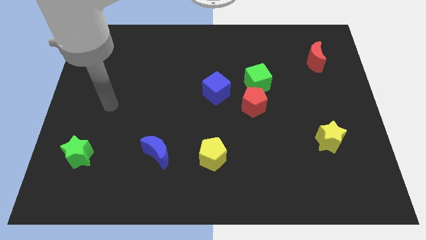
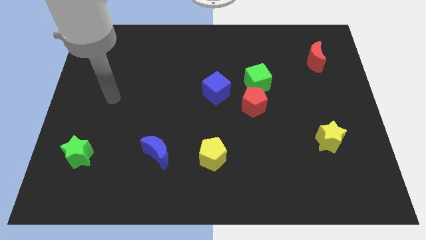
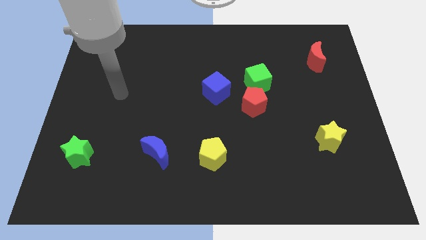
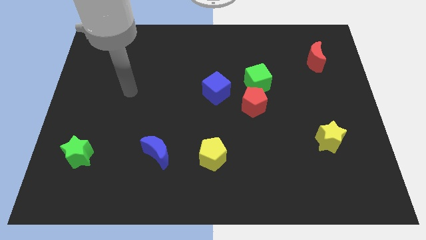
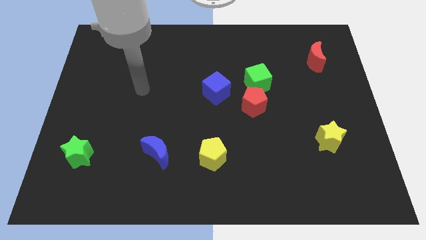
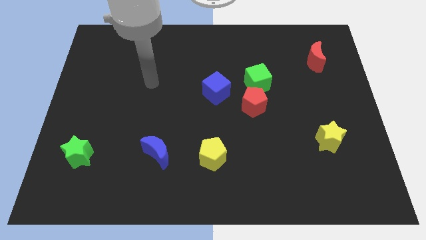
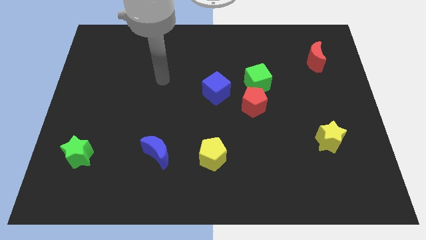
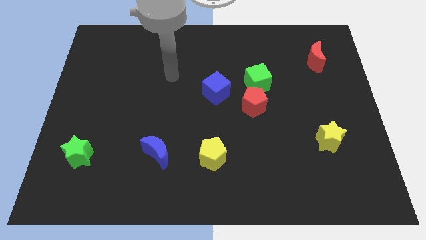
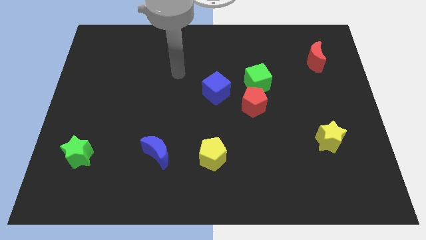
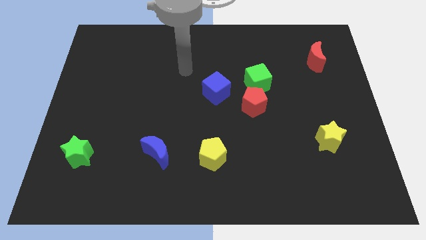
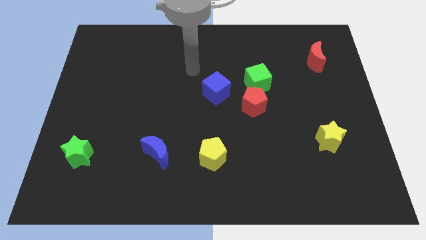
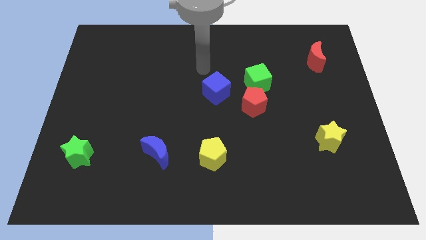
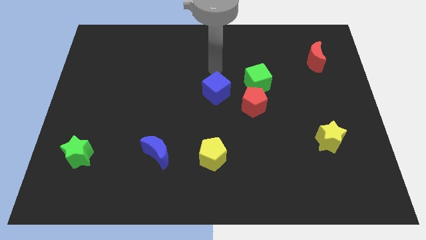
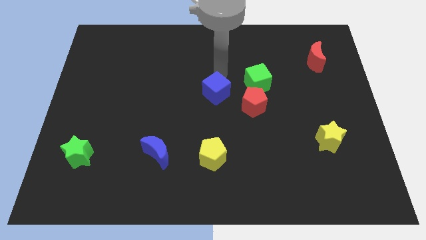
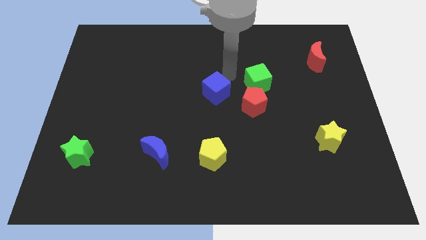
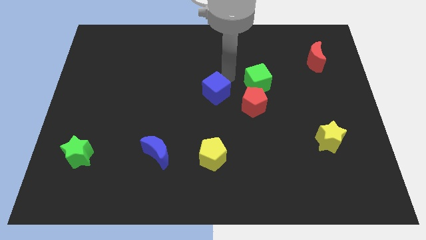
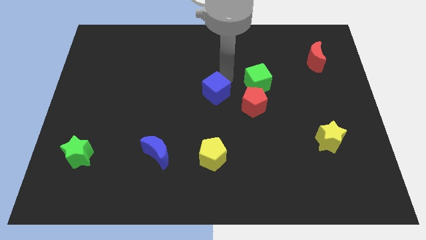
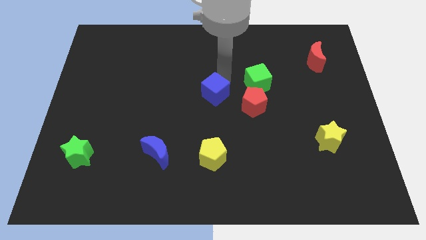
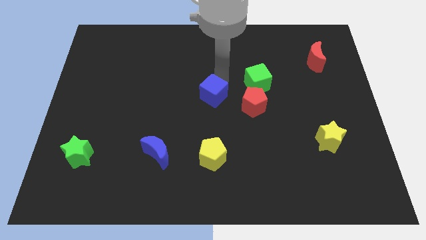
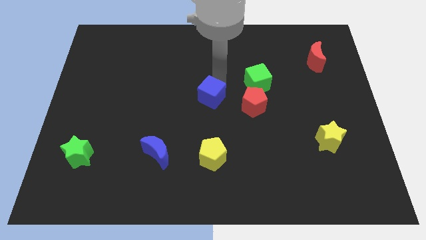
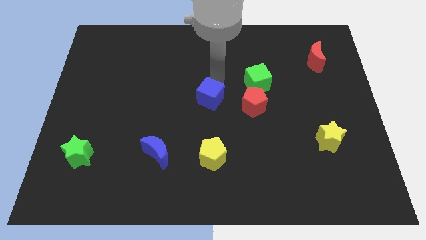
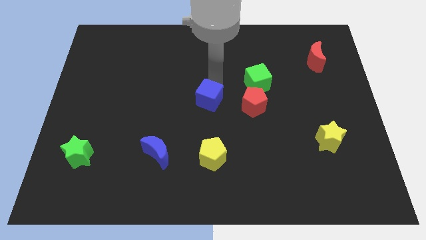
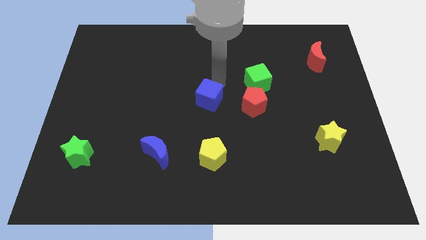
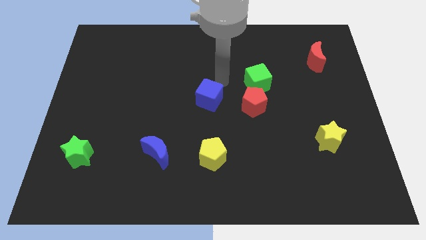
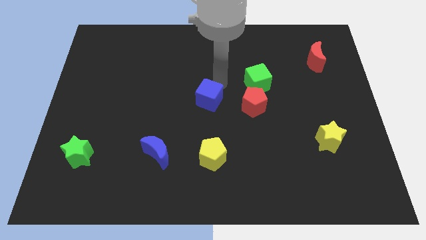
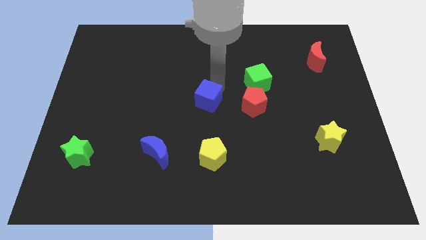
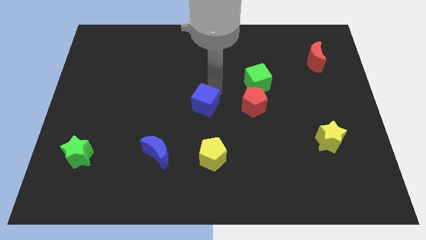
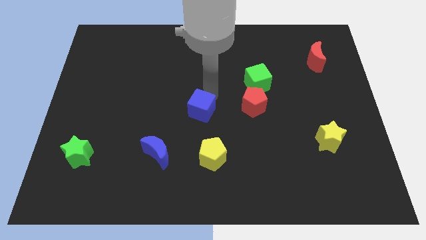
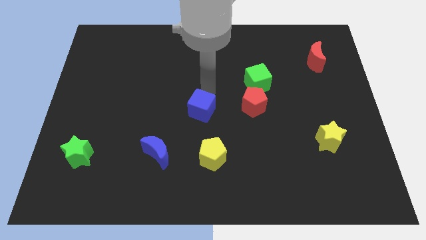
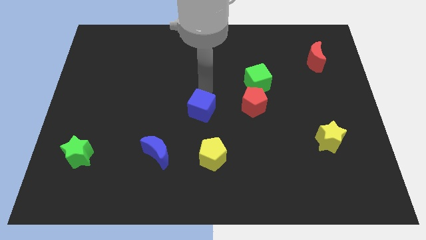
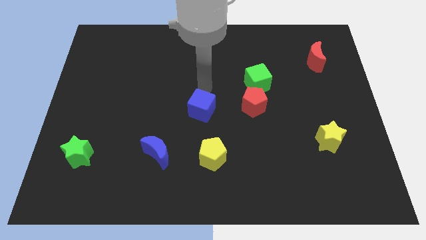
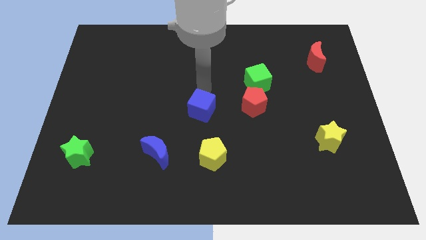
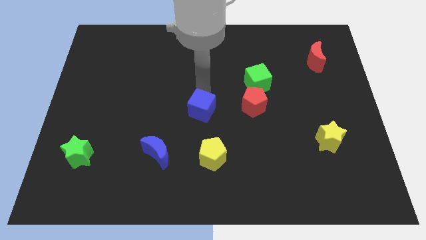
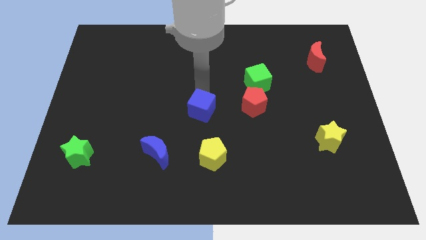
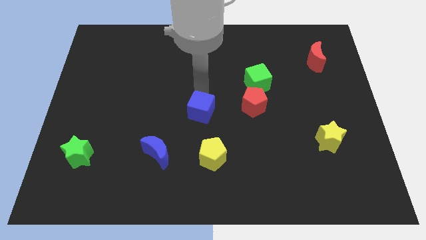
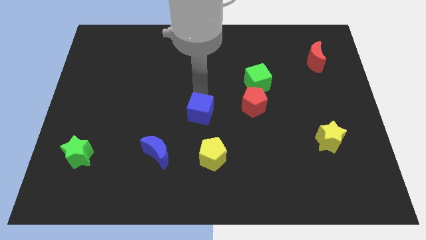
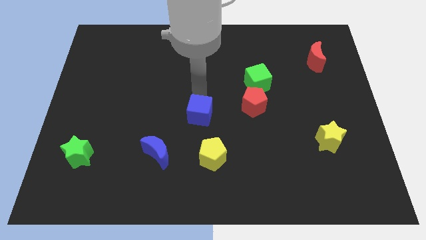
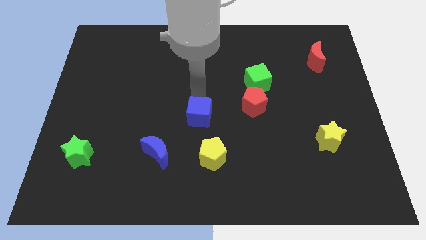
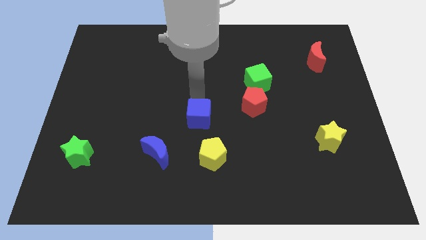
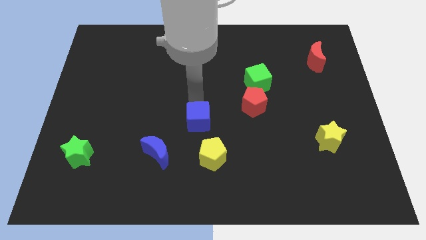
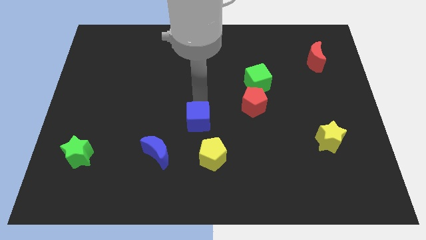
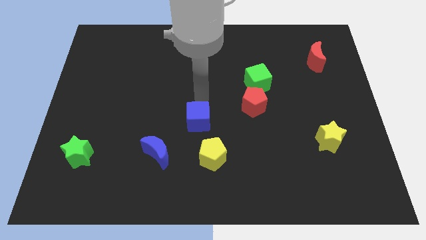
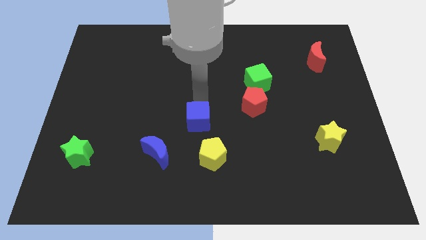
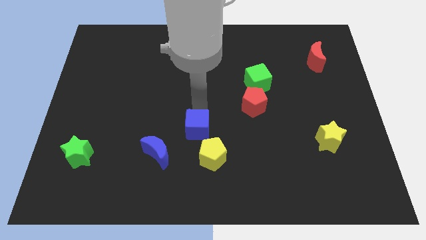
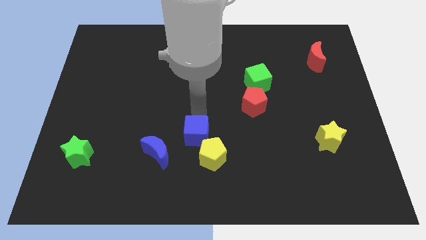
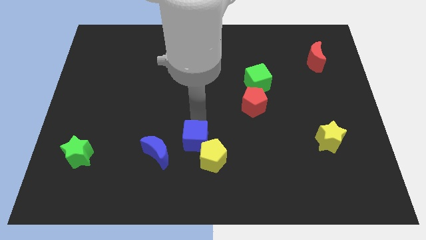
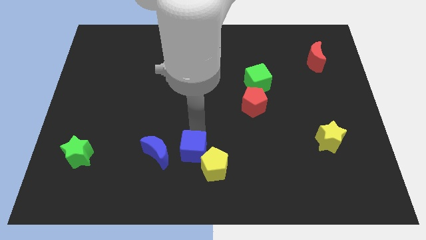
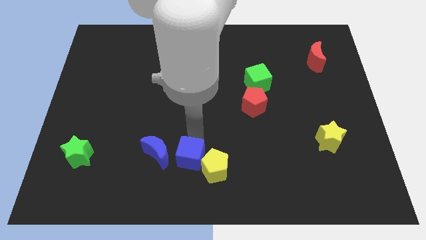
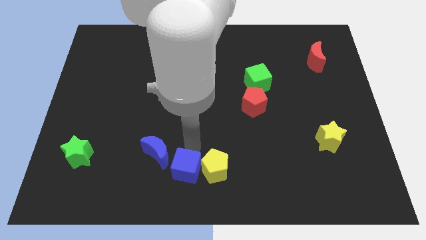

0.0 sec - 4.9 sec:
put the blue cube to the bottom left of the yellow pentagon

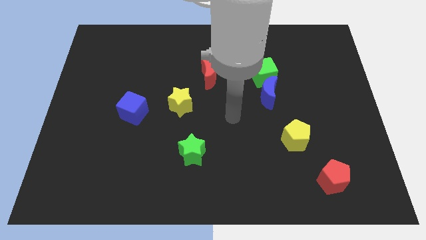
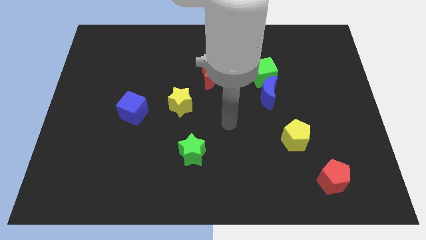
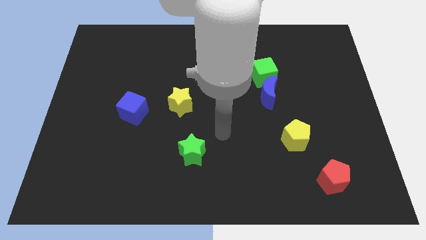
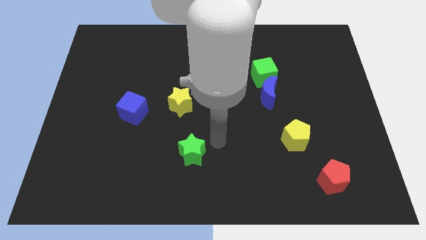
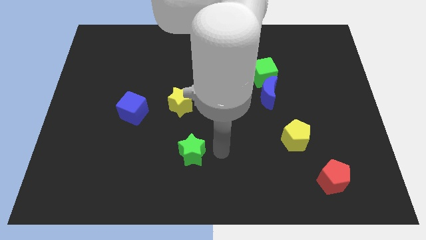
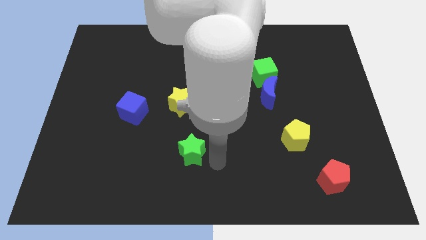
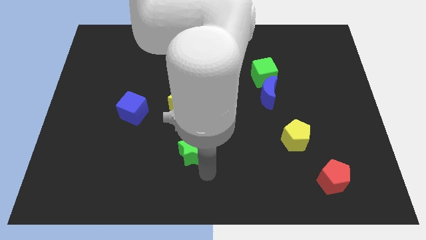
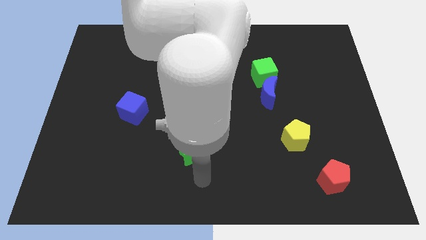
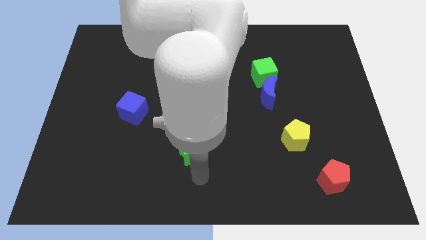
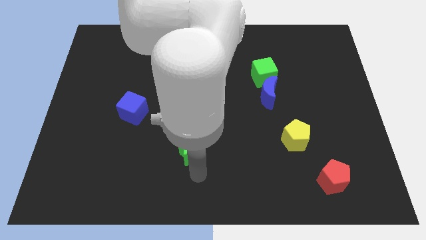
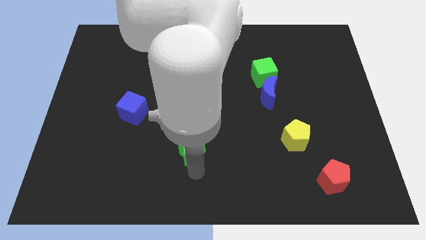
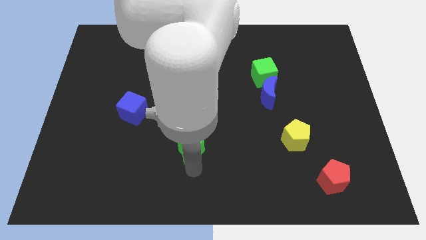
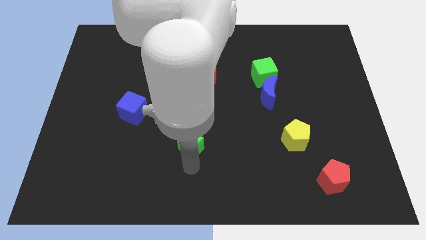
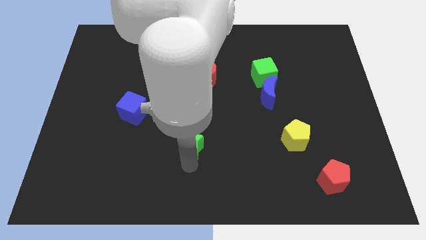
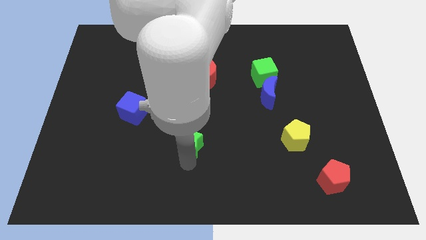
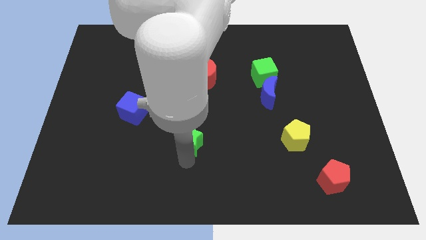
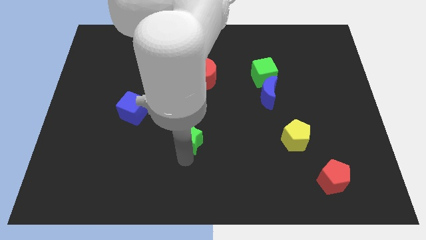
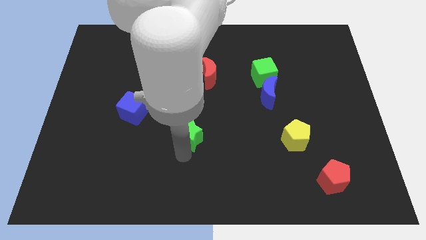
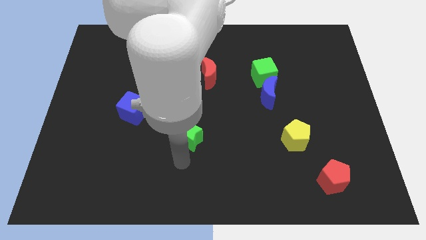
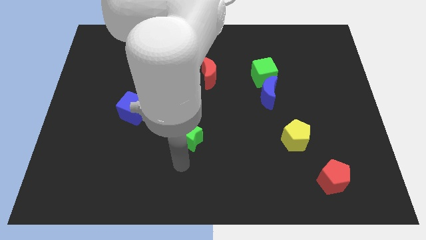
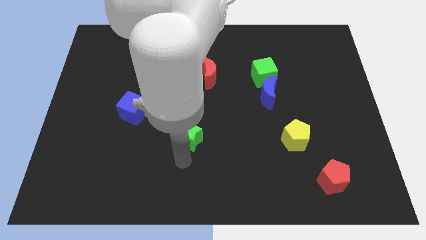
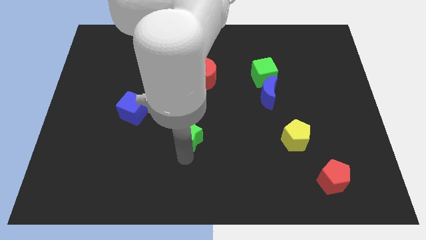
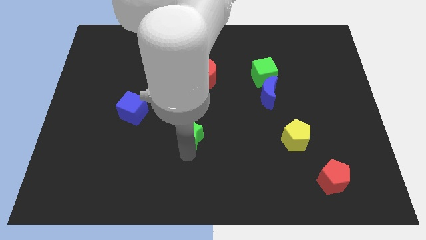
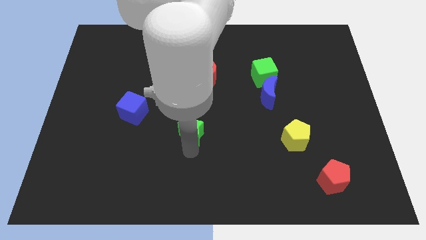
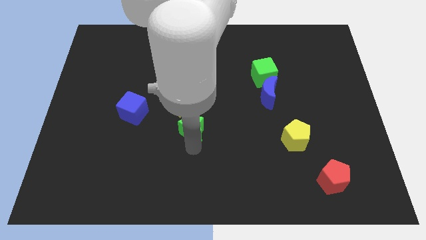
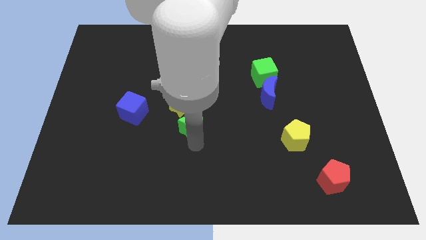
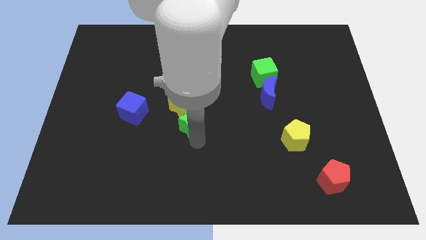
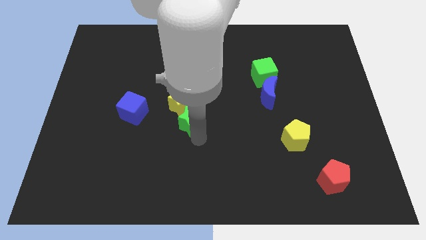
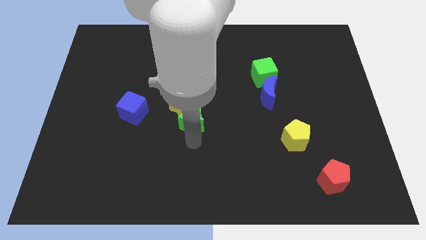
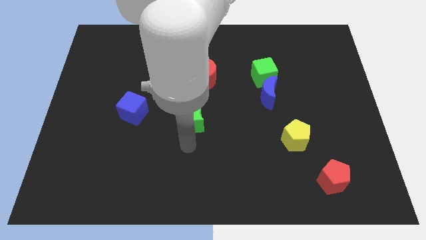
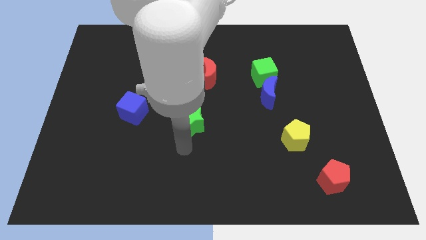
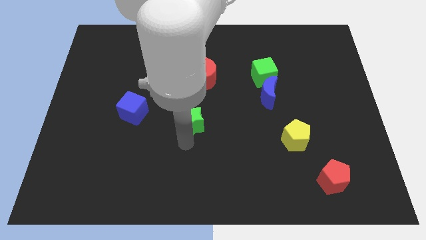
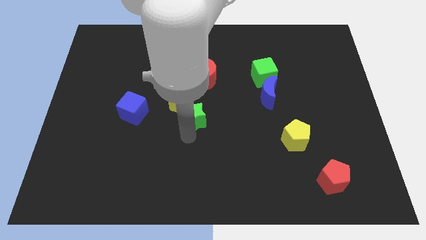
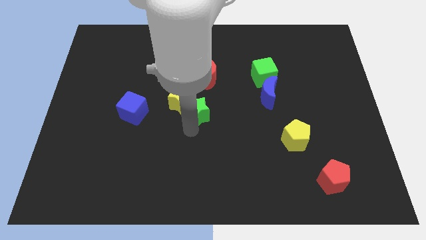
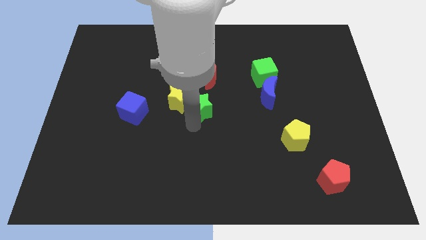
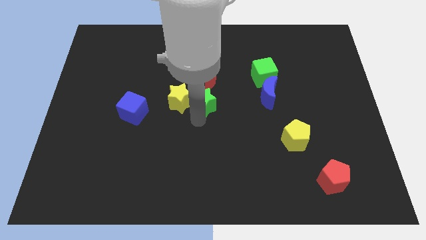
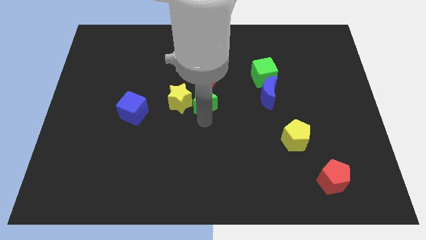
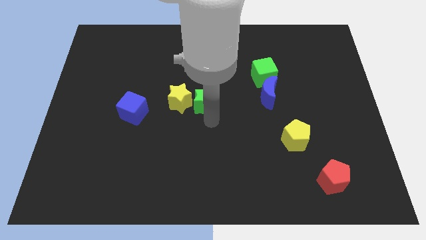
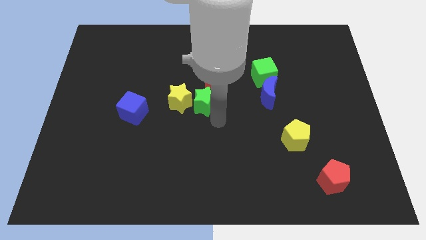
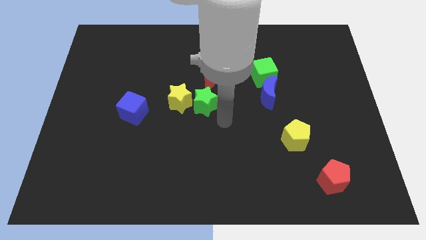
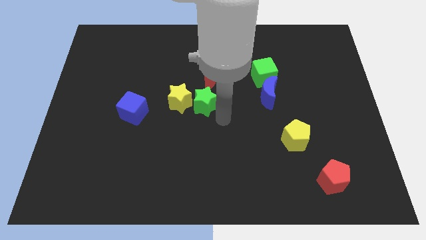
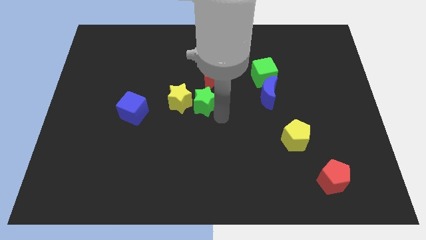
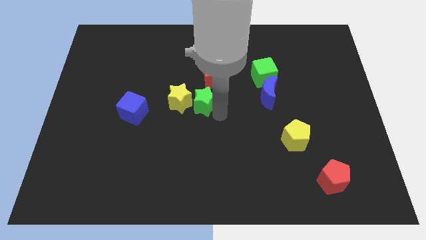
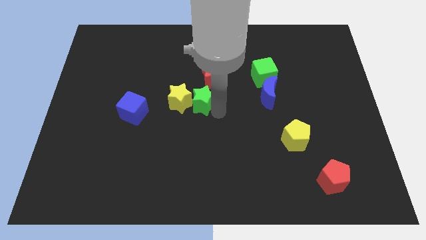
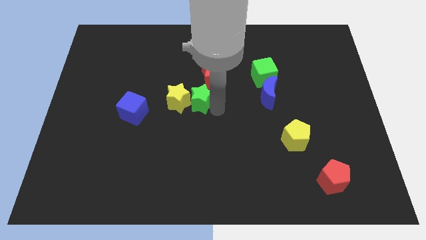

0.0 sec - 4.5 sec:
slide the green star diagonally down and to the left of the red moon
